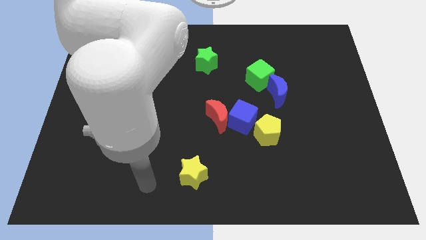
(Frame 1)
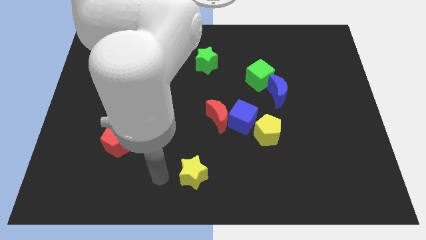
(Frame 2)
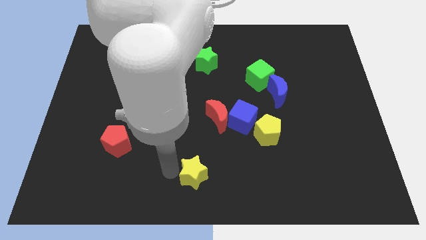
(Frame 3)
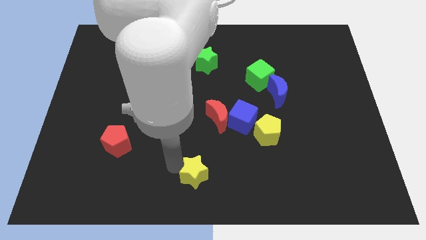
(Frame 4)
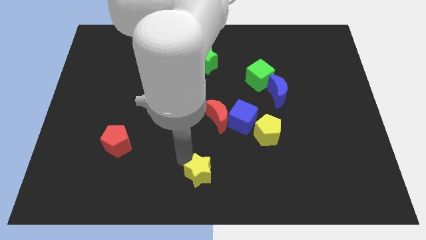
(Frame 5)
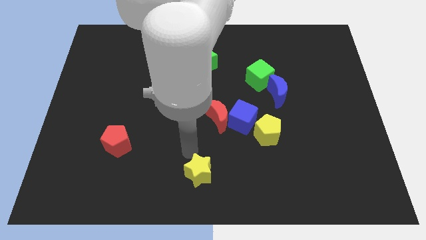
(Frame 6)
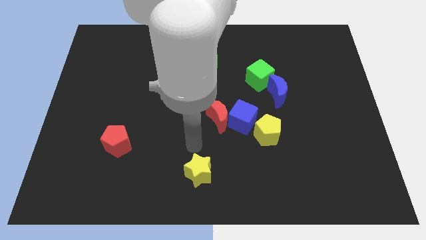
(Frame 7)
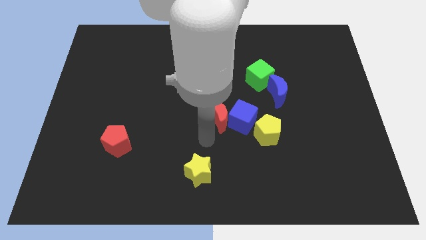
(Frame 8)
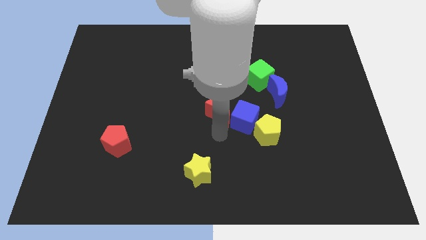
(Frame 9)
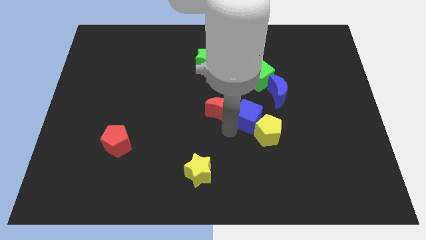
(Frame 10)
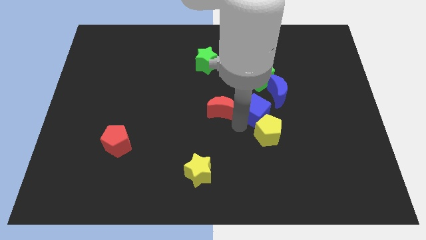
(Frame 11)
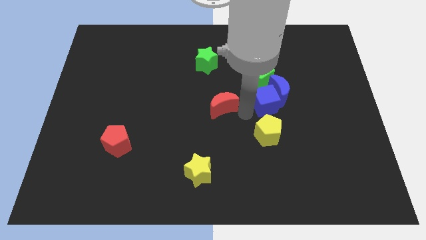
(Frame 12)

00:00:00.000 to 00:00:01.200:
separate the red moon from the blue cube

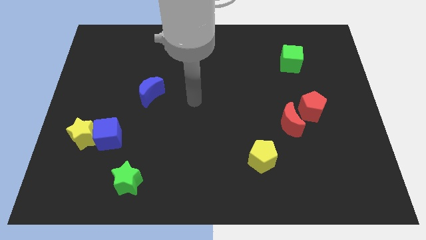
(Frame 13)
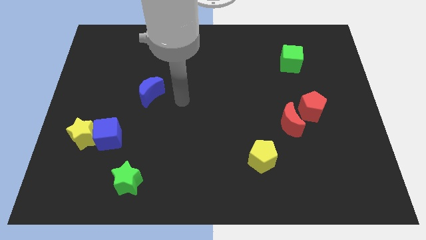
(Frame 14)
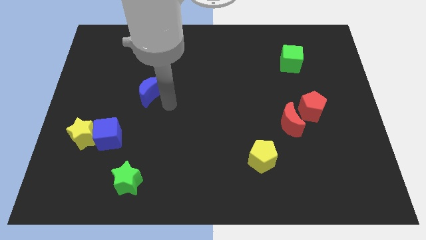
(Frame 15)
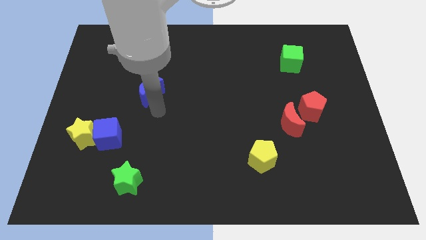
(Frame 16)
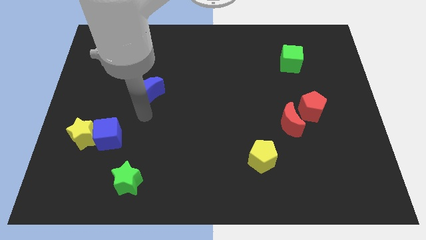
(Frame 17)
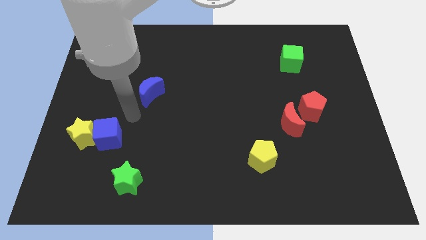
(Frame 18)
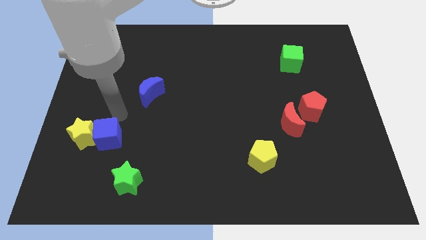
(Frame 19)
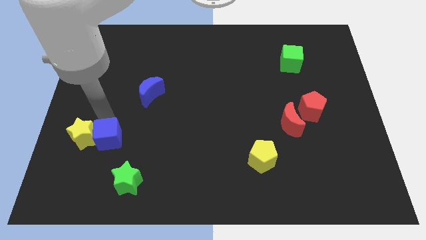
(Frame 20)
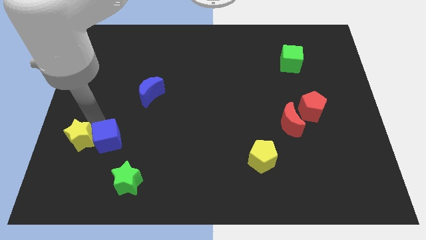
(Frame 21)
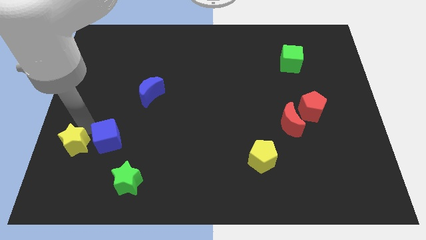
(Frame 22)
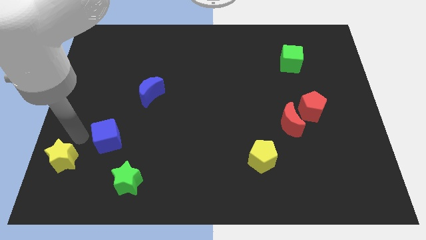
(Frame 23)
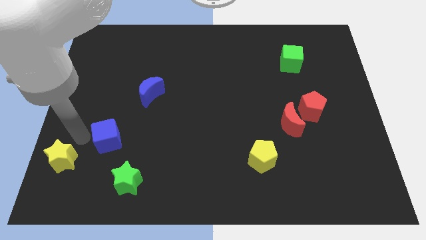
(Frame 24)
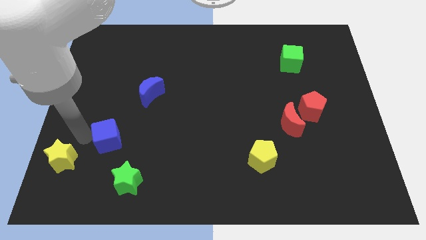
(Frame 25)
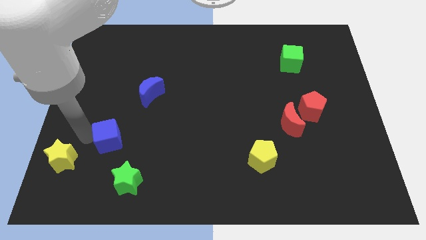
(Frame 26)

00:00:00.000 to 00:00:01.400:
separate the blue cube from the yellow star

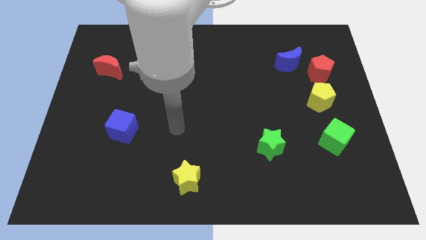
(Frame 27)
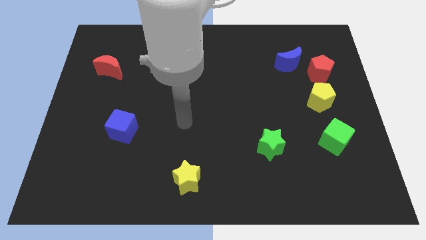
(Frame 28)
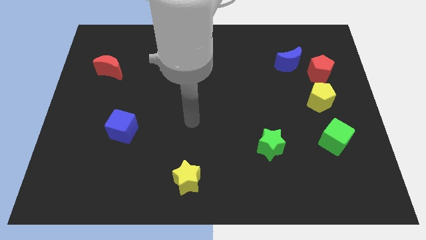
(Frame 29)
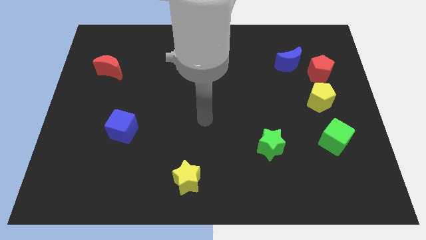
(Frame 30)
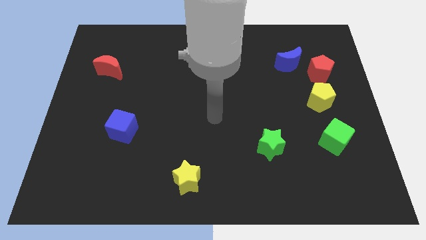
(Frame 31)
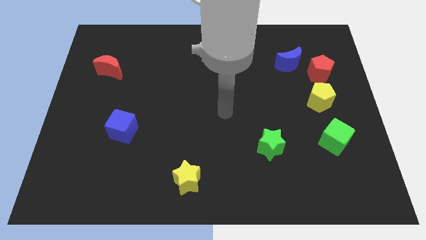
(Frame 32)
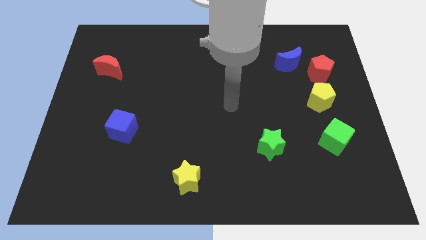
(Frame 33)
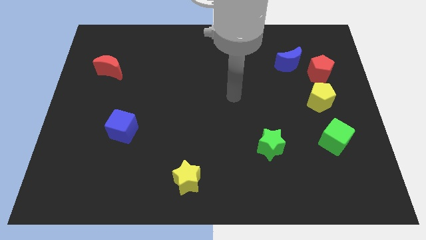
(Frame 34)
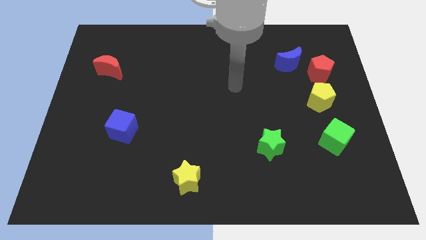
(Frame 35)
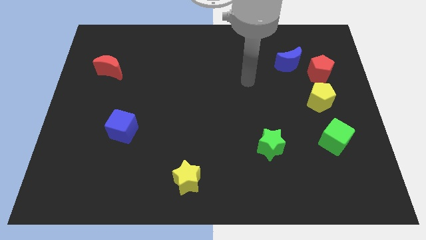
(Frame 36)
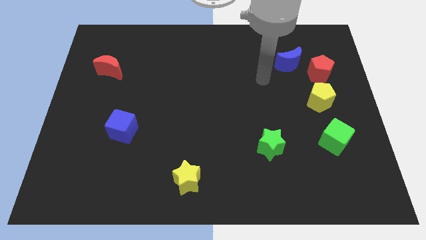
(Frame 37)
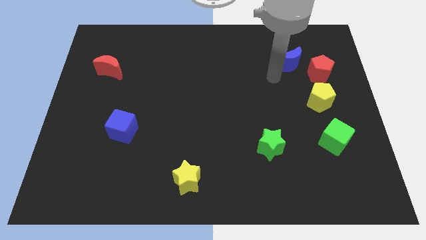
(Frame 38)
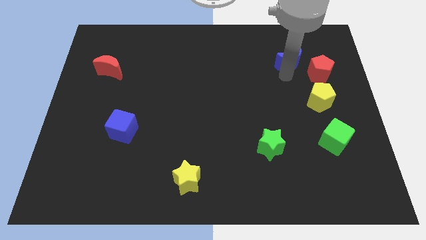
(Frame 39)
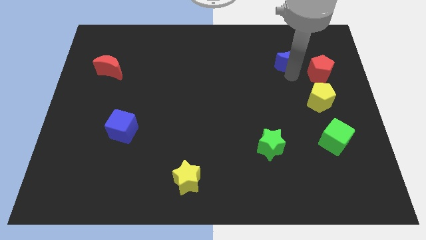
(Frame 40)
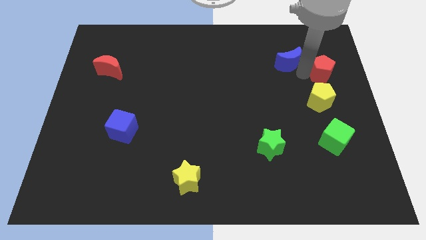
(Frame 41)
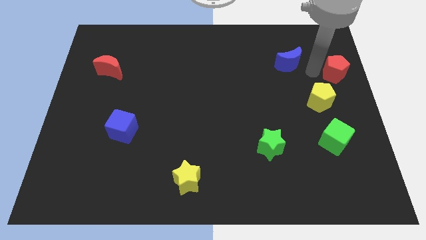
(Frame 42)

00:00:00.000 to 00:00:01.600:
separate the blue moon from the red pentagon

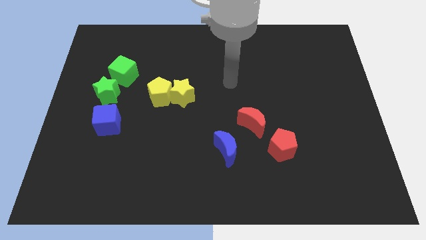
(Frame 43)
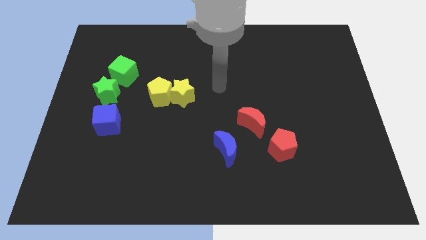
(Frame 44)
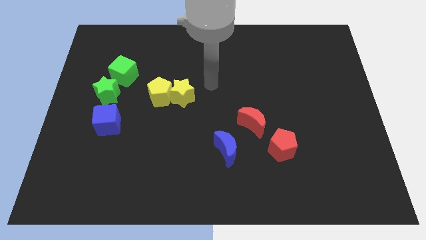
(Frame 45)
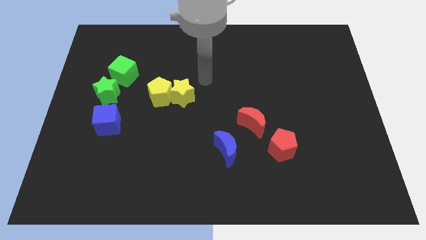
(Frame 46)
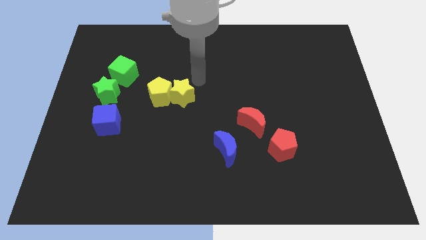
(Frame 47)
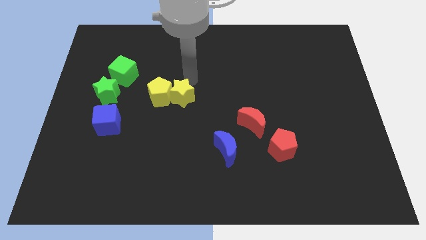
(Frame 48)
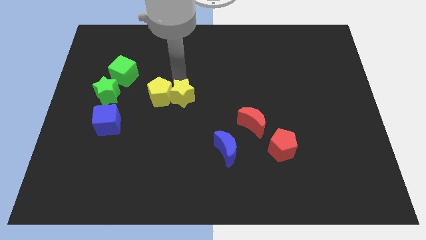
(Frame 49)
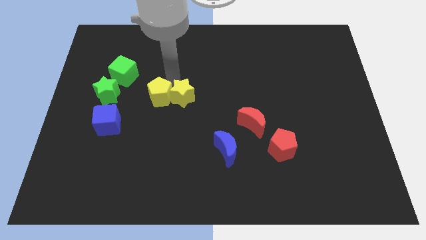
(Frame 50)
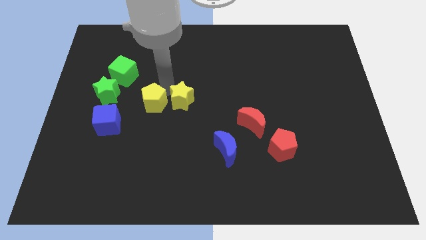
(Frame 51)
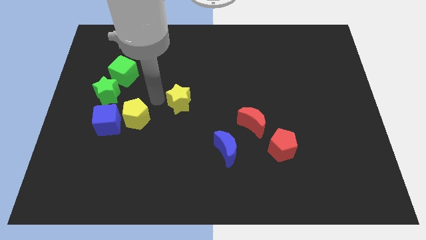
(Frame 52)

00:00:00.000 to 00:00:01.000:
separate the yellow star from the yellow pentagon

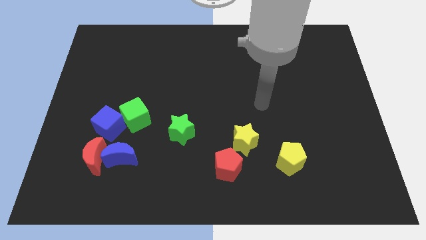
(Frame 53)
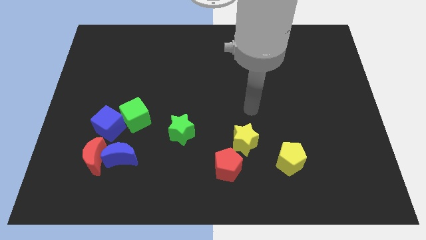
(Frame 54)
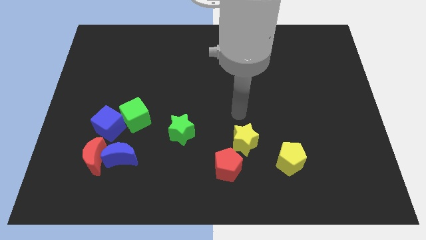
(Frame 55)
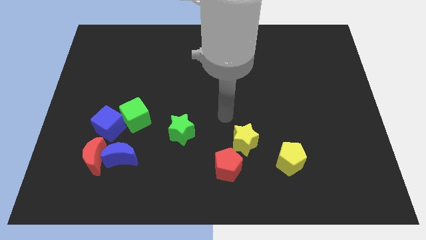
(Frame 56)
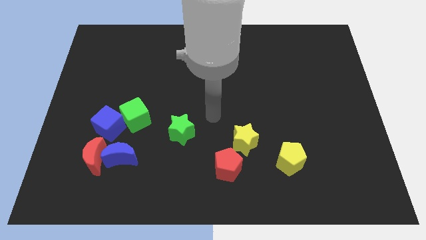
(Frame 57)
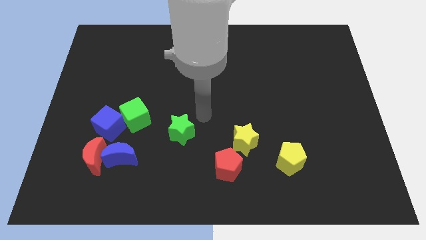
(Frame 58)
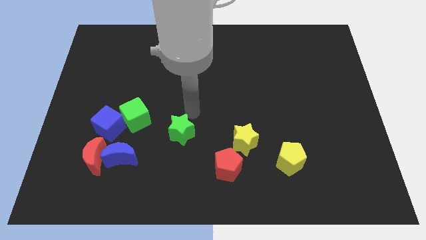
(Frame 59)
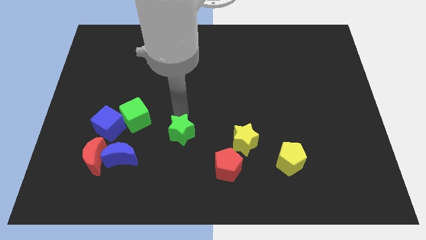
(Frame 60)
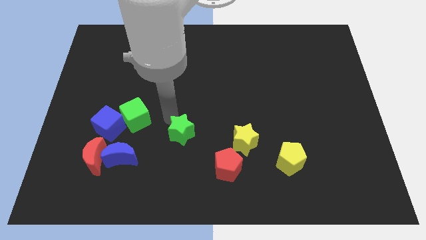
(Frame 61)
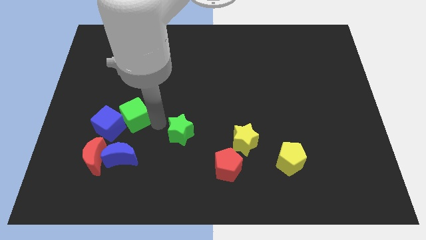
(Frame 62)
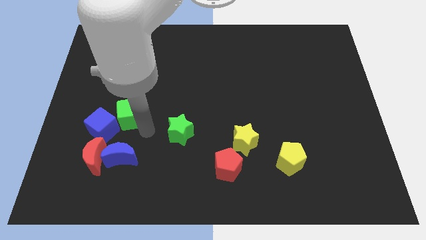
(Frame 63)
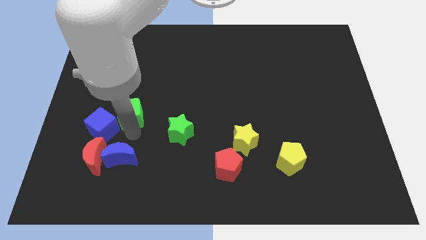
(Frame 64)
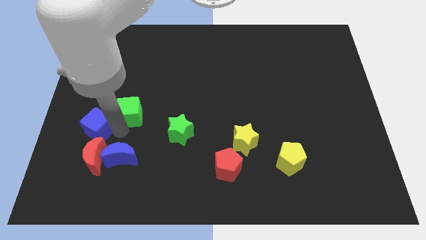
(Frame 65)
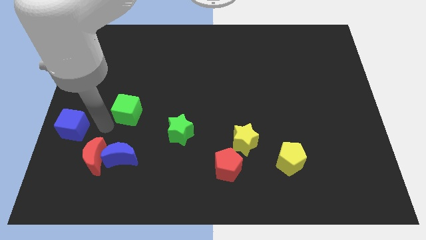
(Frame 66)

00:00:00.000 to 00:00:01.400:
pull the green cube apart from the blue cube

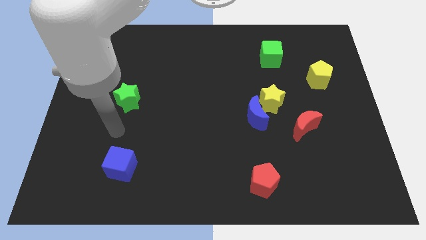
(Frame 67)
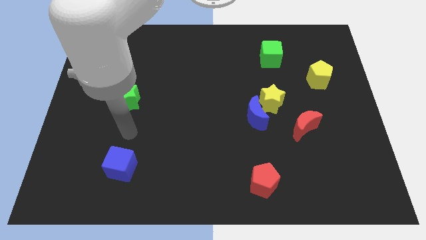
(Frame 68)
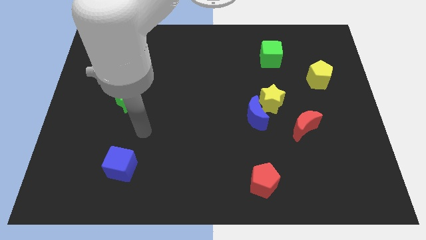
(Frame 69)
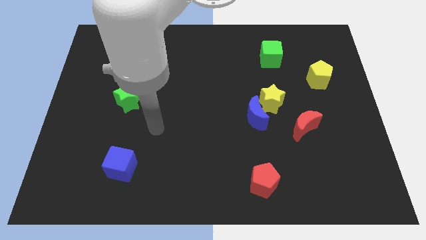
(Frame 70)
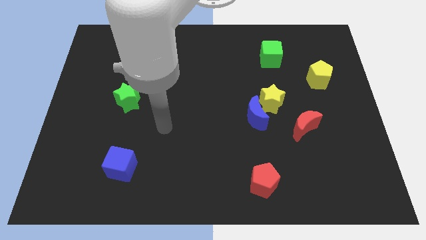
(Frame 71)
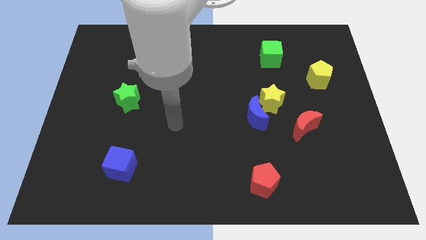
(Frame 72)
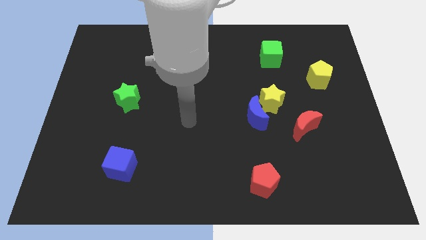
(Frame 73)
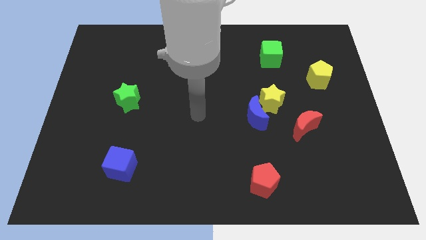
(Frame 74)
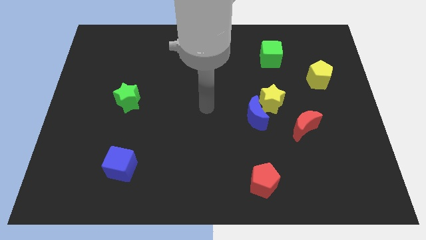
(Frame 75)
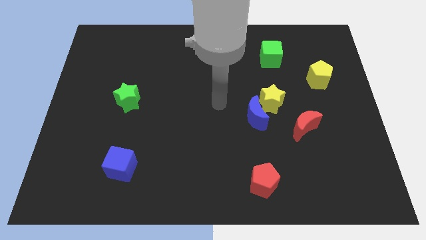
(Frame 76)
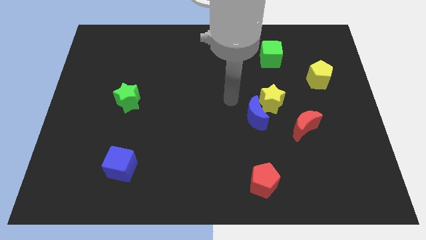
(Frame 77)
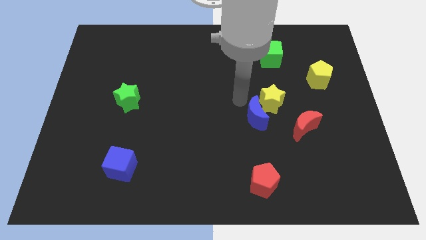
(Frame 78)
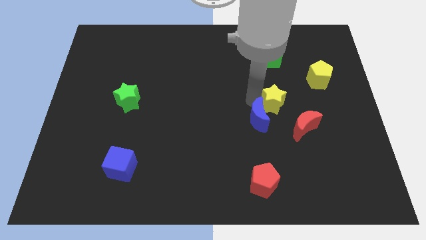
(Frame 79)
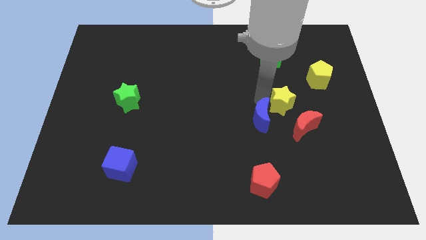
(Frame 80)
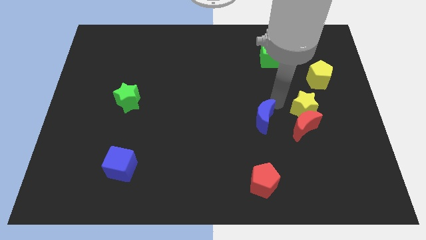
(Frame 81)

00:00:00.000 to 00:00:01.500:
pull the blue moon apart from the yellow star

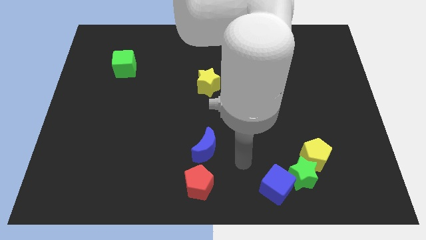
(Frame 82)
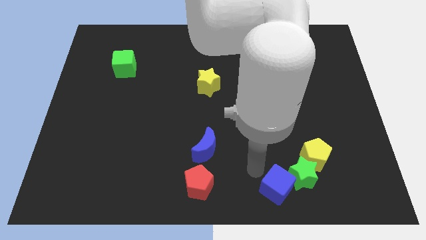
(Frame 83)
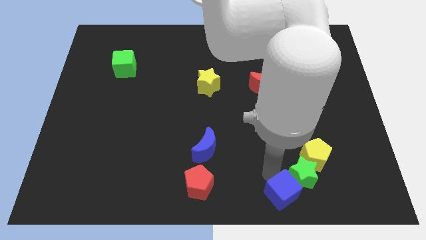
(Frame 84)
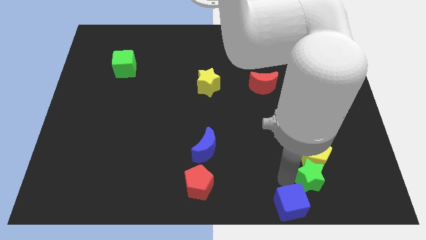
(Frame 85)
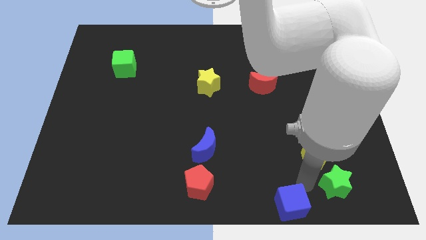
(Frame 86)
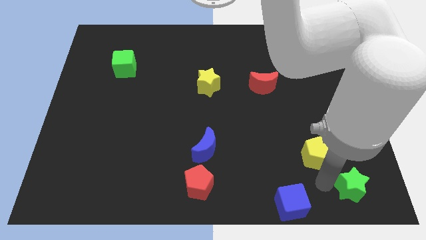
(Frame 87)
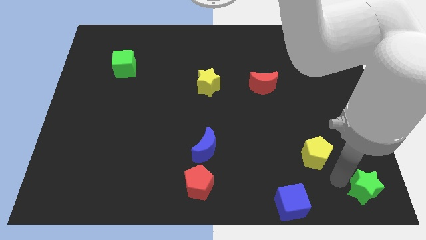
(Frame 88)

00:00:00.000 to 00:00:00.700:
move the yellow pentagon away from the green star

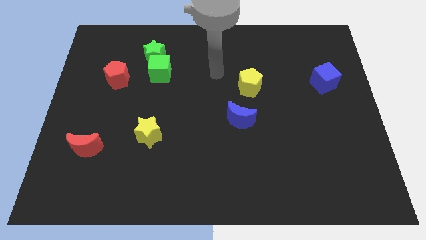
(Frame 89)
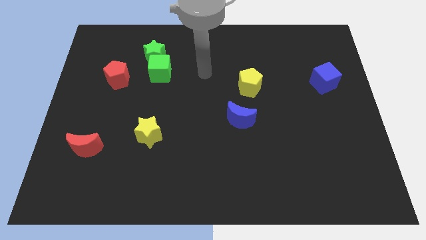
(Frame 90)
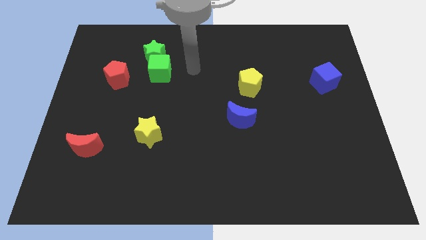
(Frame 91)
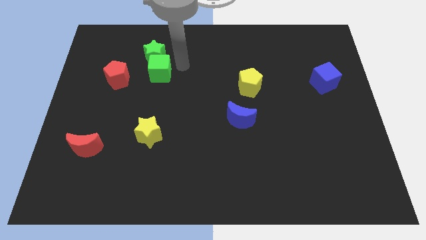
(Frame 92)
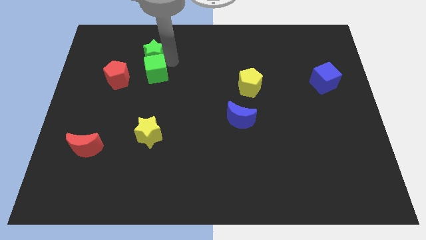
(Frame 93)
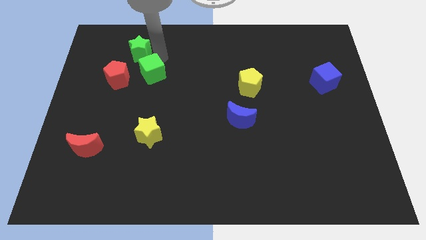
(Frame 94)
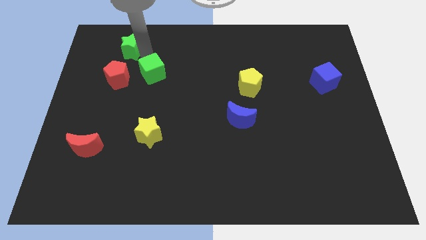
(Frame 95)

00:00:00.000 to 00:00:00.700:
pull the green cube apart from the green star
